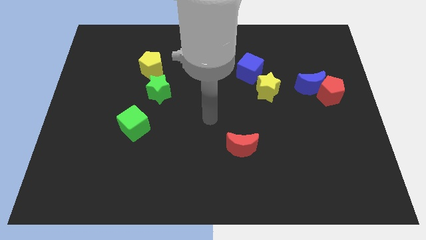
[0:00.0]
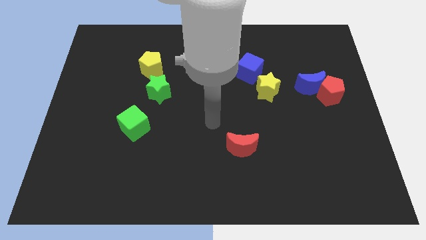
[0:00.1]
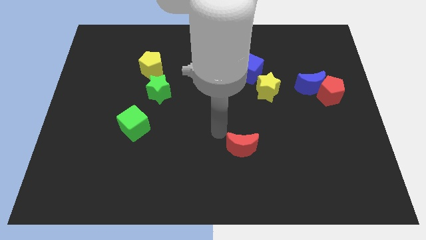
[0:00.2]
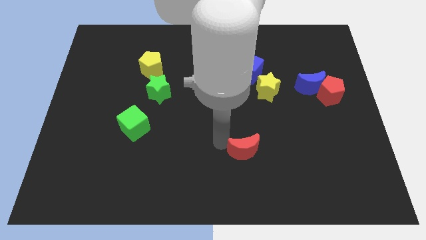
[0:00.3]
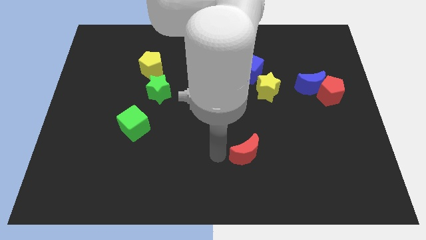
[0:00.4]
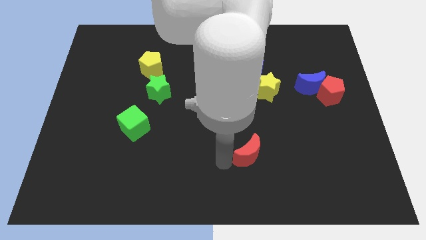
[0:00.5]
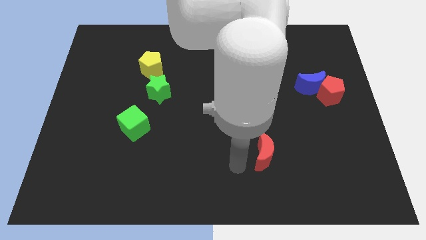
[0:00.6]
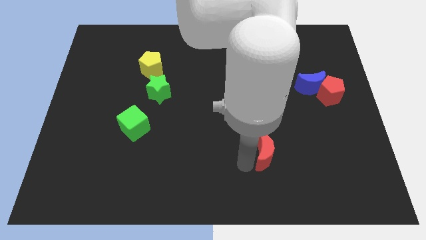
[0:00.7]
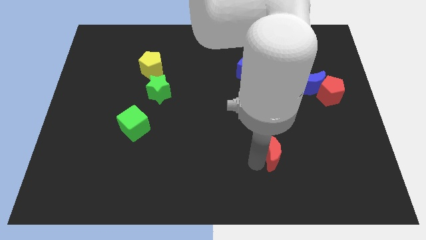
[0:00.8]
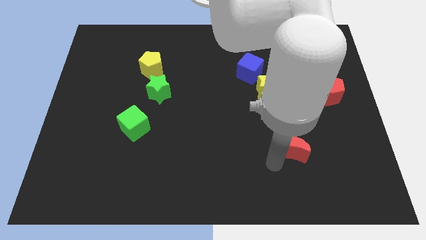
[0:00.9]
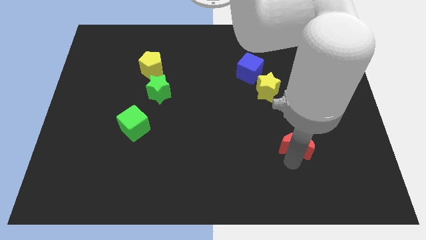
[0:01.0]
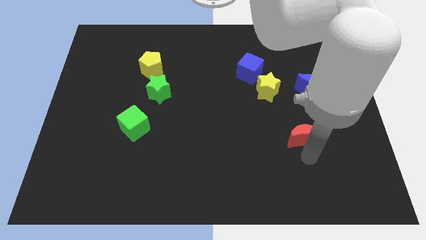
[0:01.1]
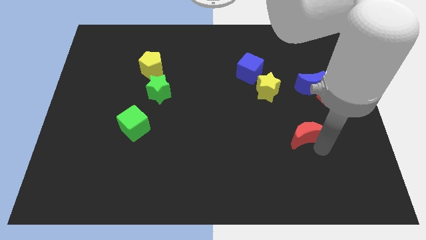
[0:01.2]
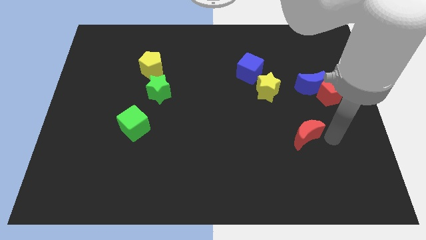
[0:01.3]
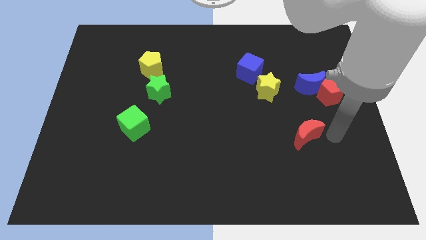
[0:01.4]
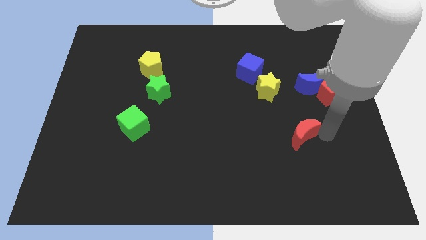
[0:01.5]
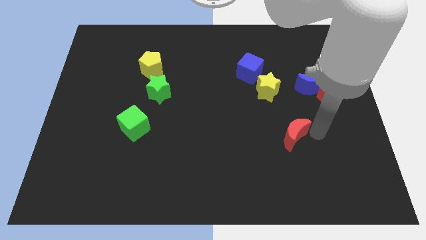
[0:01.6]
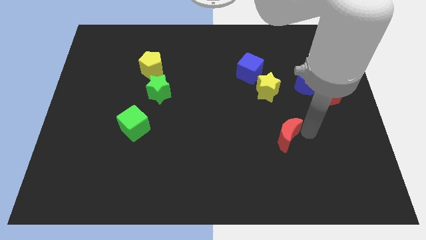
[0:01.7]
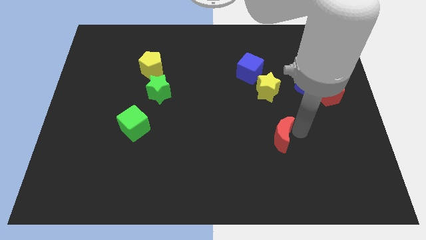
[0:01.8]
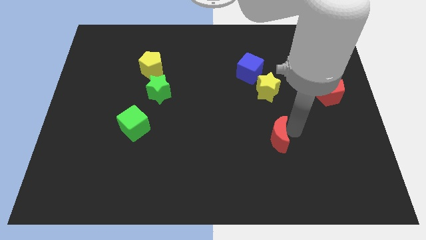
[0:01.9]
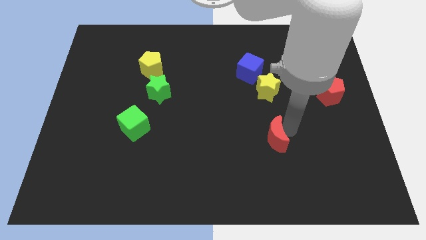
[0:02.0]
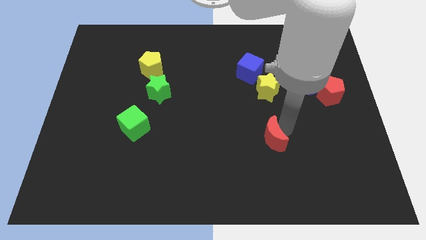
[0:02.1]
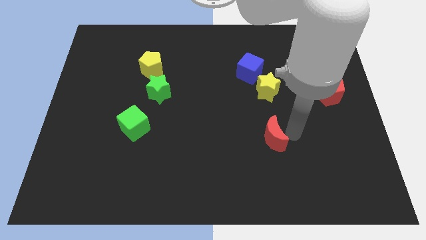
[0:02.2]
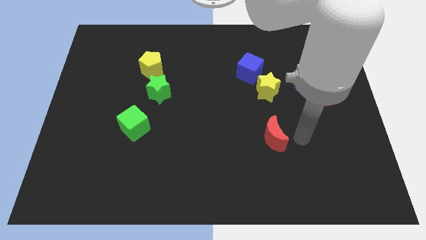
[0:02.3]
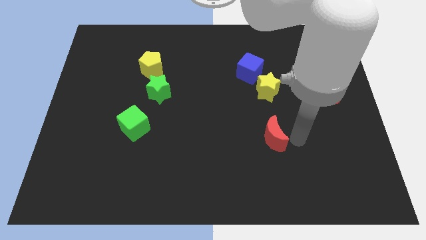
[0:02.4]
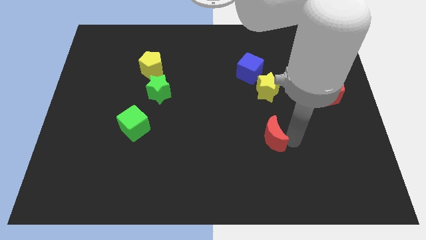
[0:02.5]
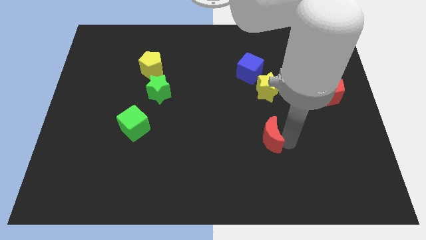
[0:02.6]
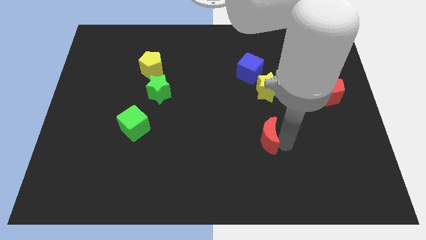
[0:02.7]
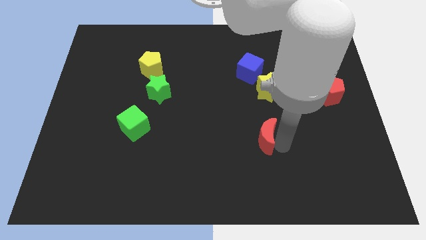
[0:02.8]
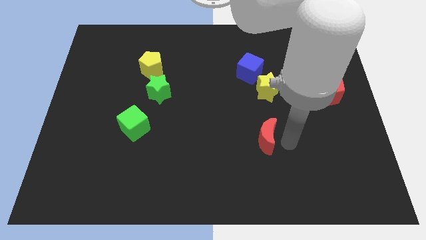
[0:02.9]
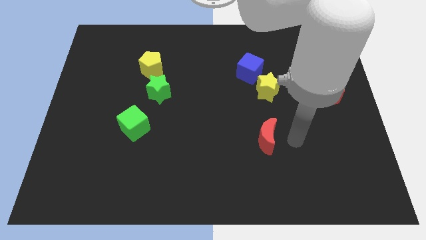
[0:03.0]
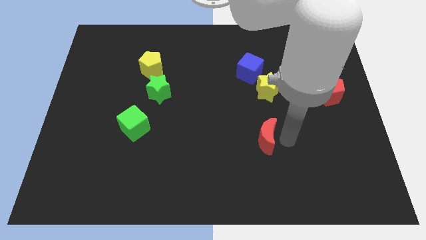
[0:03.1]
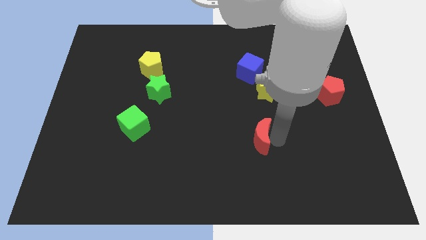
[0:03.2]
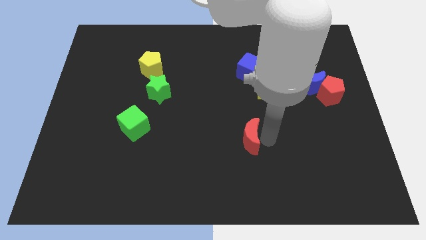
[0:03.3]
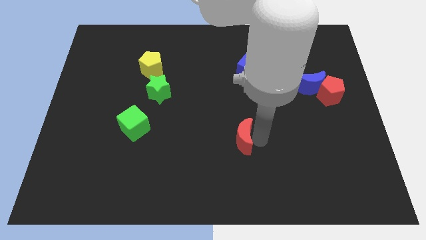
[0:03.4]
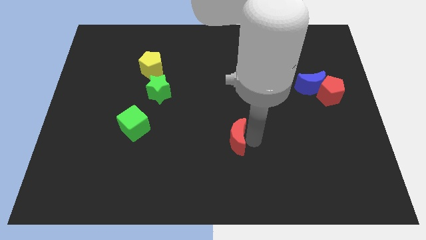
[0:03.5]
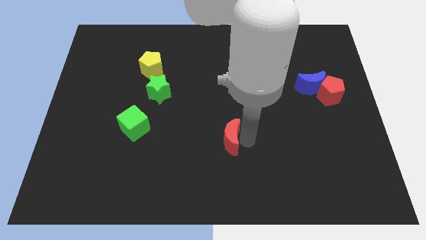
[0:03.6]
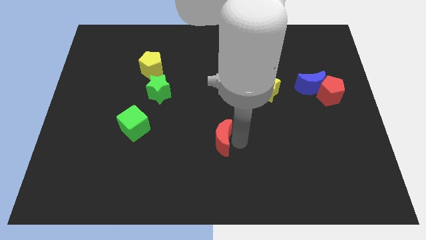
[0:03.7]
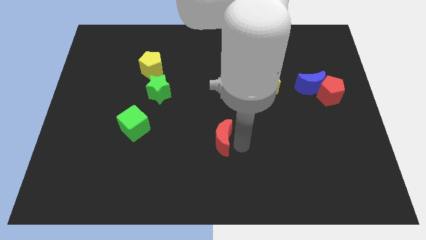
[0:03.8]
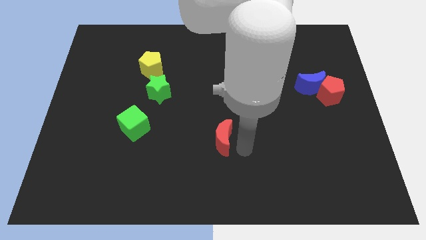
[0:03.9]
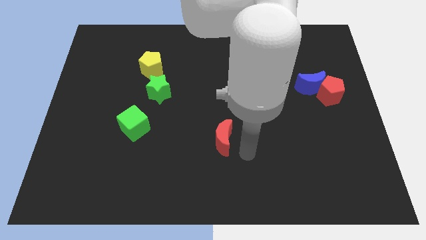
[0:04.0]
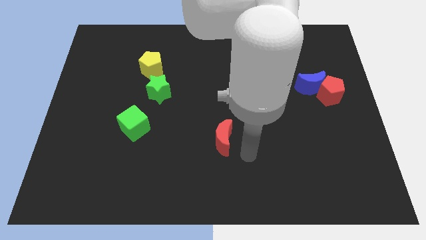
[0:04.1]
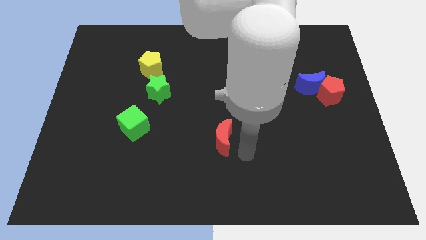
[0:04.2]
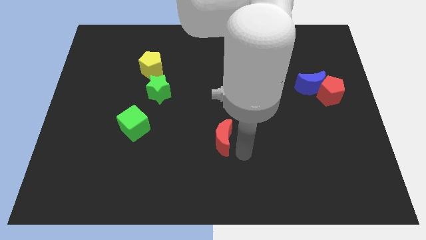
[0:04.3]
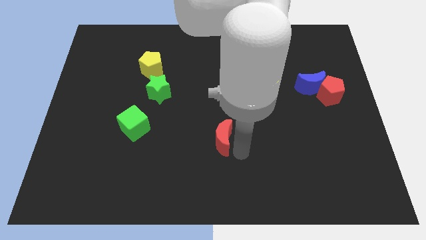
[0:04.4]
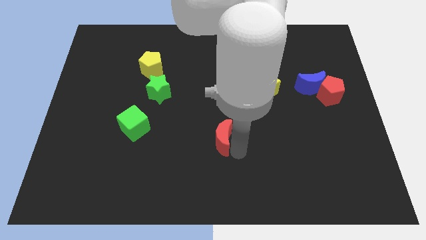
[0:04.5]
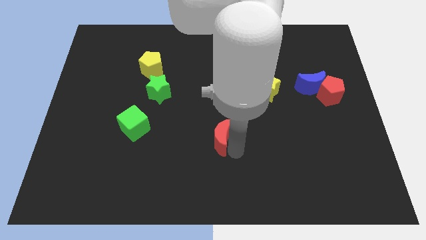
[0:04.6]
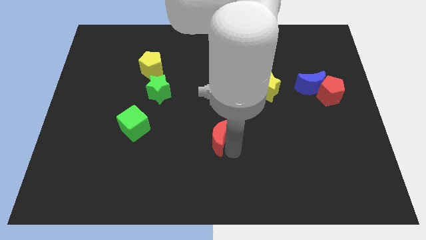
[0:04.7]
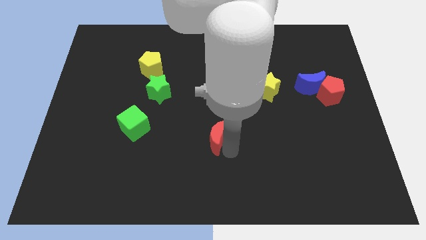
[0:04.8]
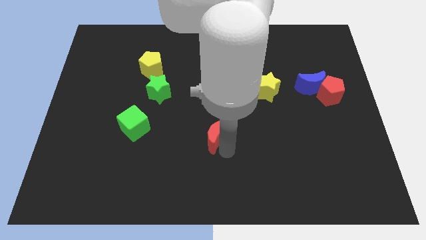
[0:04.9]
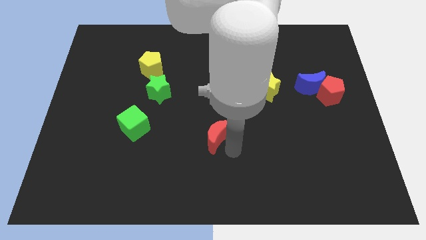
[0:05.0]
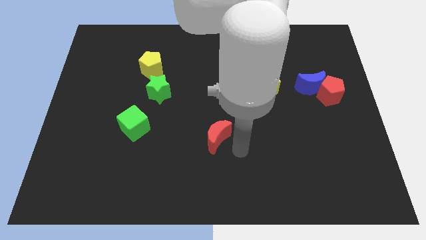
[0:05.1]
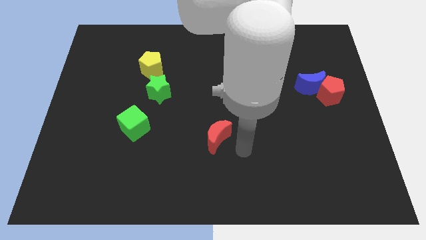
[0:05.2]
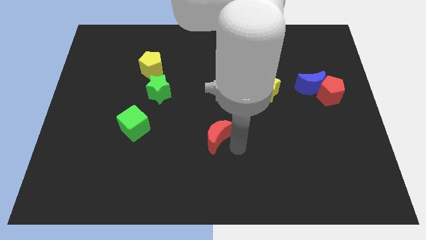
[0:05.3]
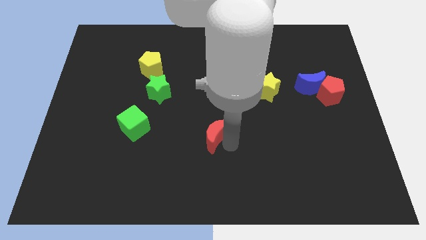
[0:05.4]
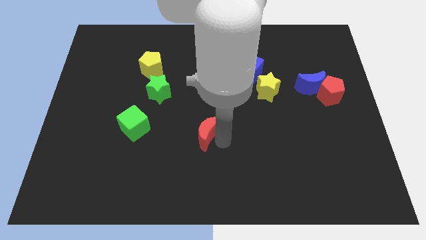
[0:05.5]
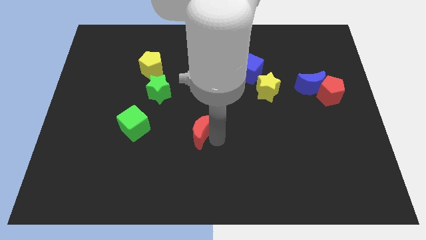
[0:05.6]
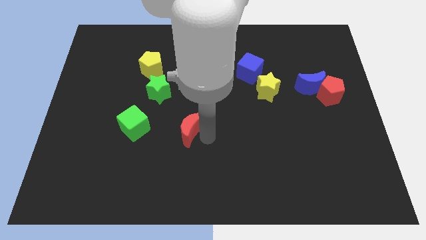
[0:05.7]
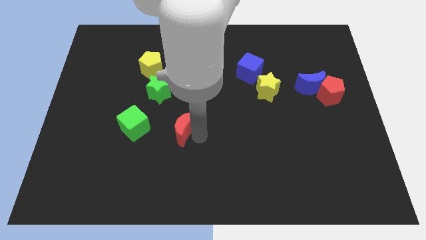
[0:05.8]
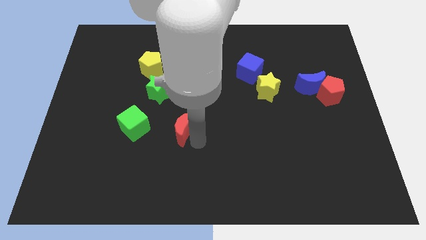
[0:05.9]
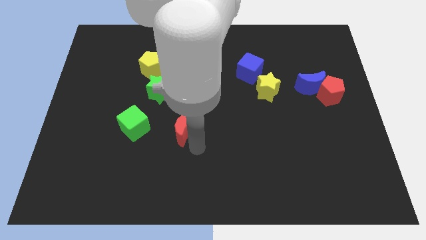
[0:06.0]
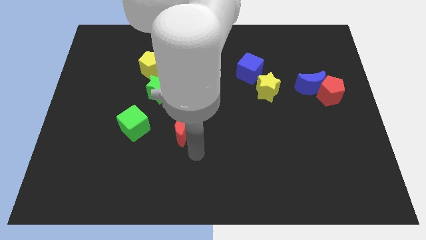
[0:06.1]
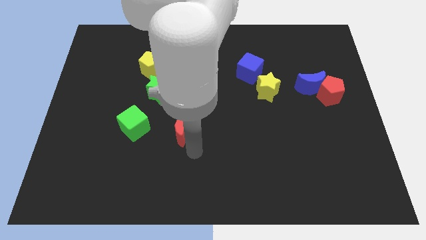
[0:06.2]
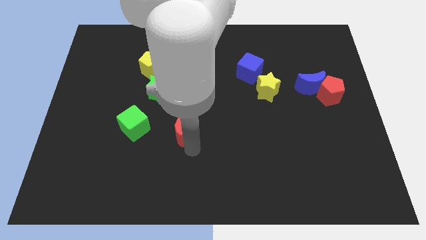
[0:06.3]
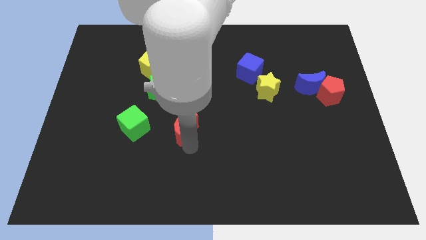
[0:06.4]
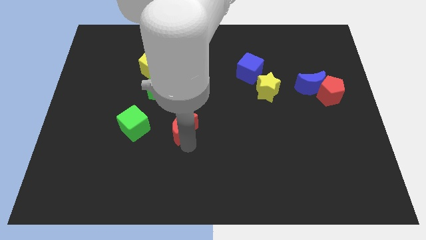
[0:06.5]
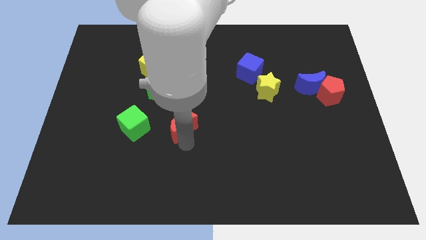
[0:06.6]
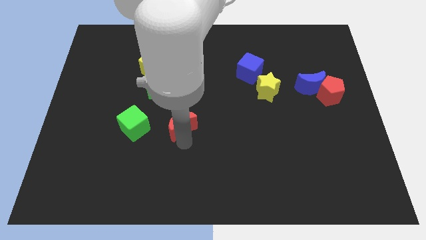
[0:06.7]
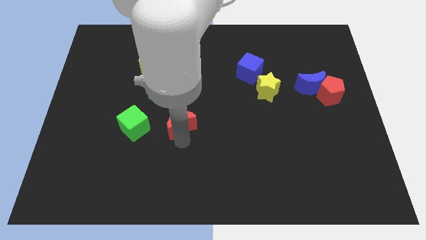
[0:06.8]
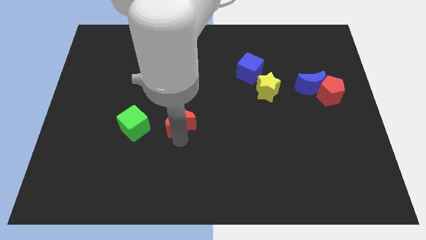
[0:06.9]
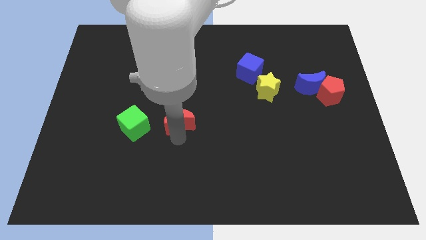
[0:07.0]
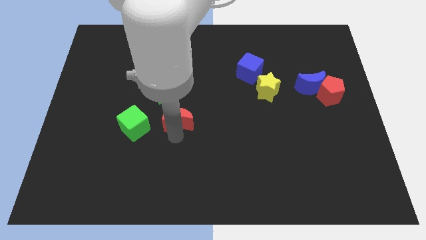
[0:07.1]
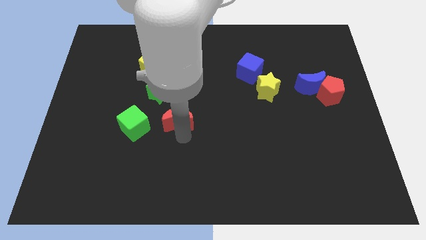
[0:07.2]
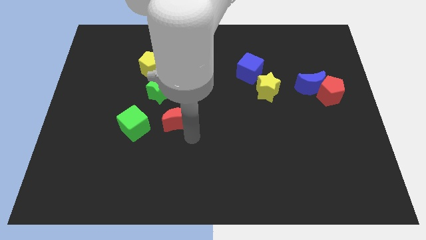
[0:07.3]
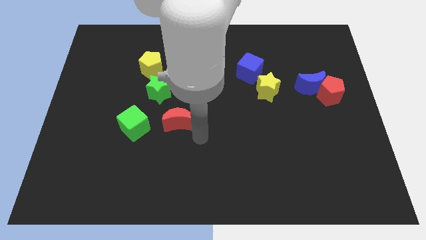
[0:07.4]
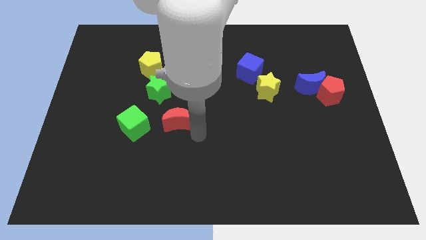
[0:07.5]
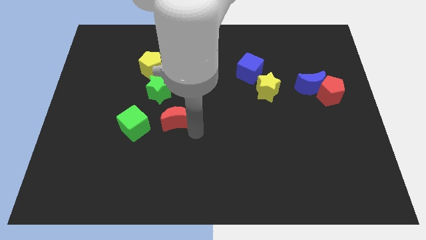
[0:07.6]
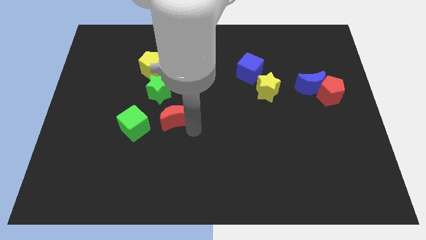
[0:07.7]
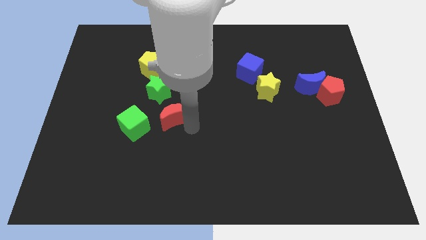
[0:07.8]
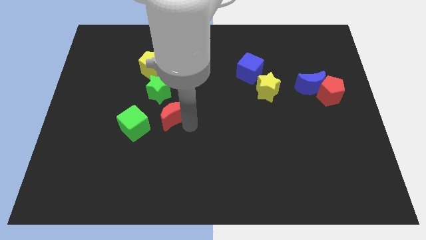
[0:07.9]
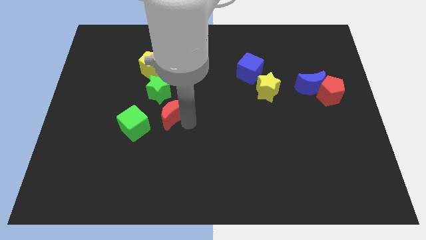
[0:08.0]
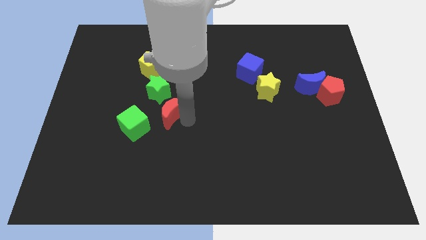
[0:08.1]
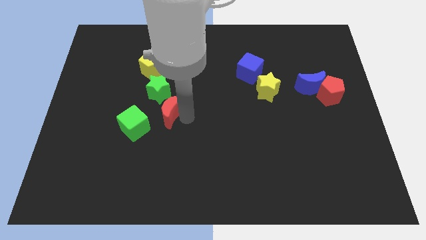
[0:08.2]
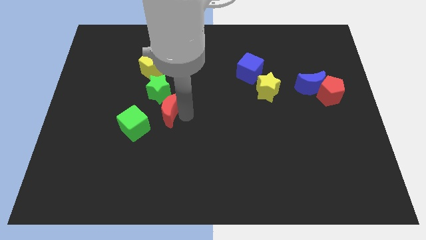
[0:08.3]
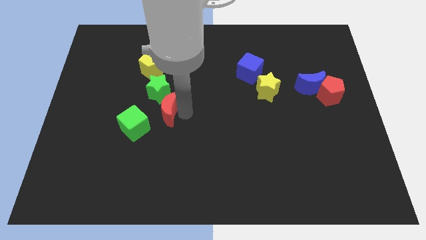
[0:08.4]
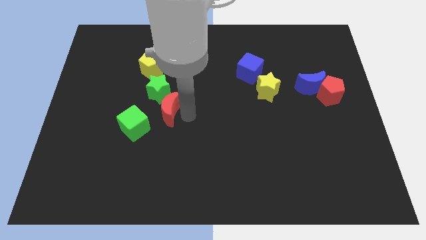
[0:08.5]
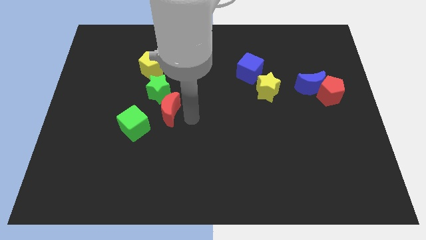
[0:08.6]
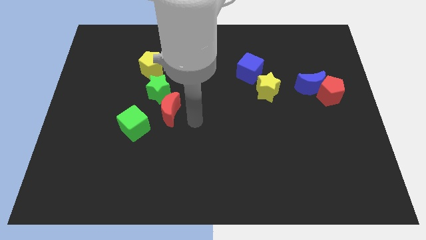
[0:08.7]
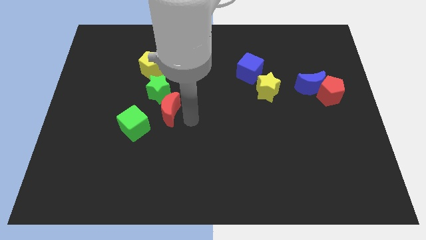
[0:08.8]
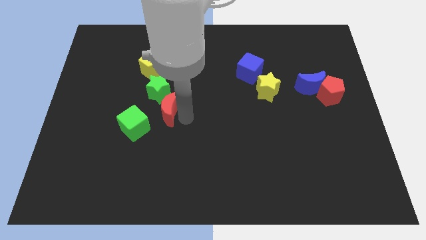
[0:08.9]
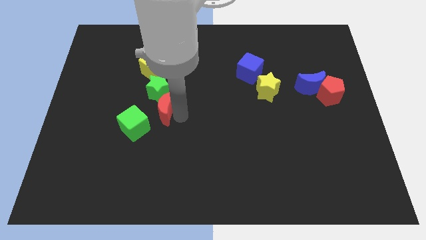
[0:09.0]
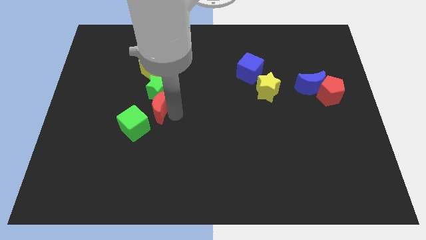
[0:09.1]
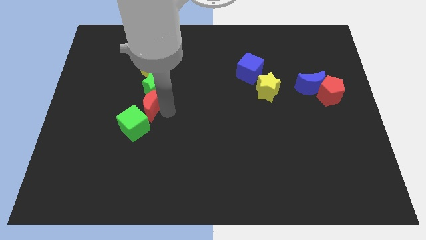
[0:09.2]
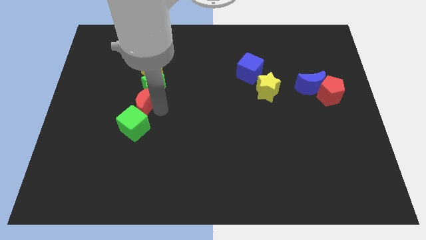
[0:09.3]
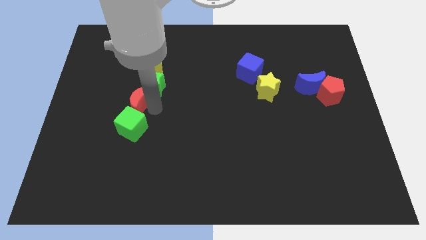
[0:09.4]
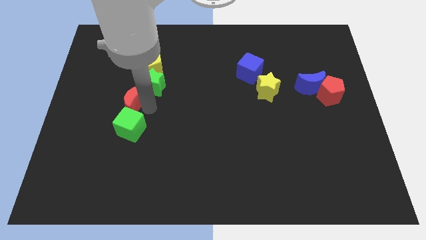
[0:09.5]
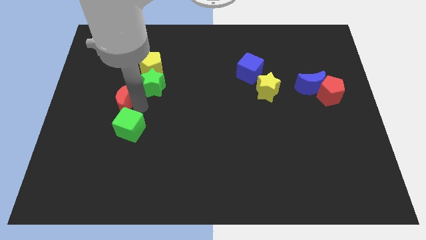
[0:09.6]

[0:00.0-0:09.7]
slide the red moon to the left of the green star
